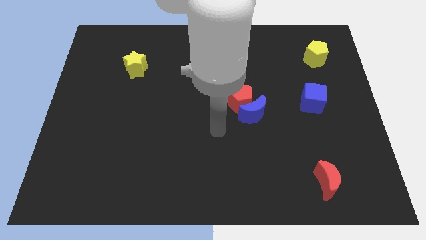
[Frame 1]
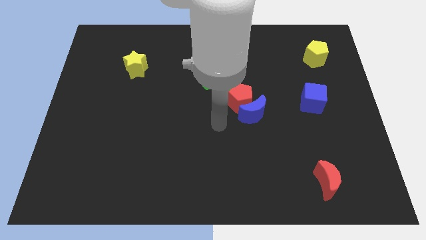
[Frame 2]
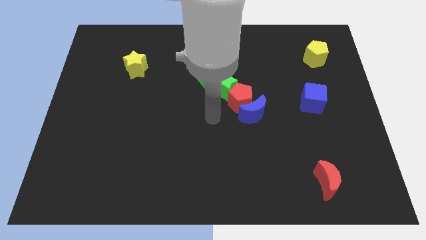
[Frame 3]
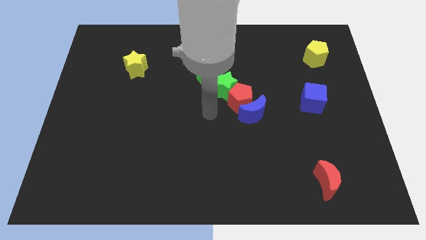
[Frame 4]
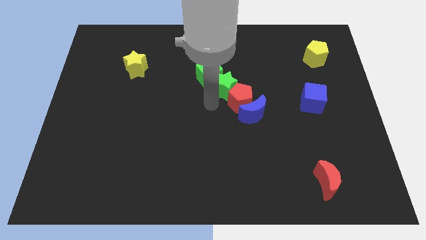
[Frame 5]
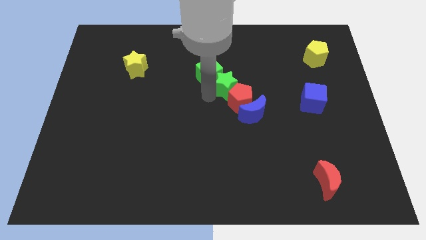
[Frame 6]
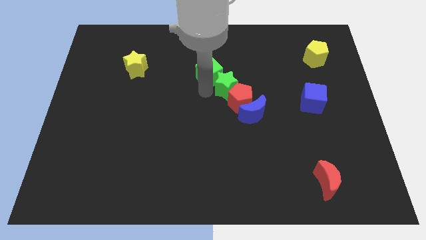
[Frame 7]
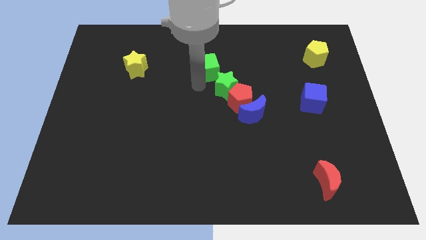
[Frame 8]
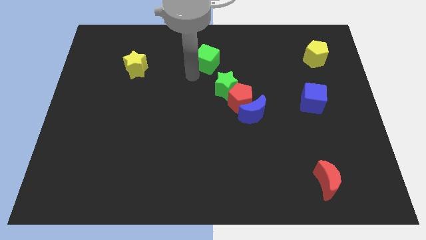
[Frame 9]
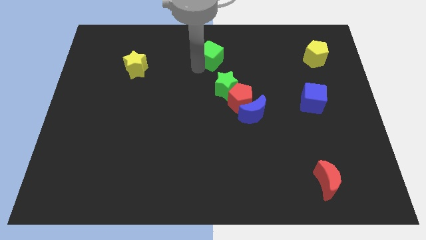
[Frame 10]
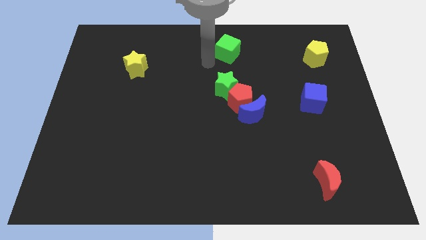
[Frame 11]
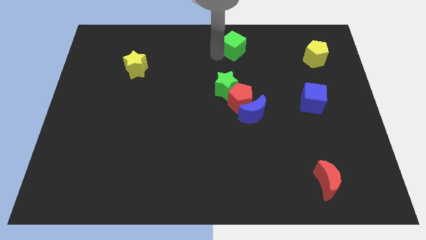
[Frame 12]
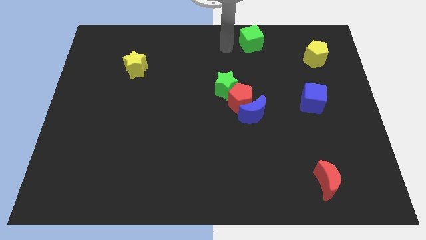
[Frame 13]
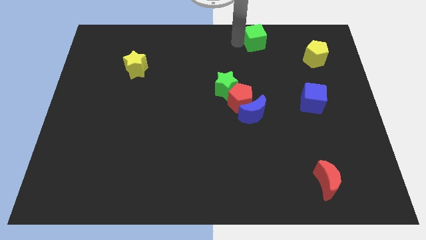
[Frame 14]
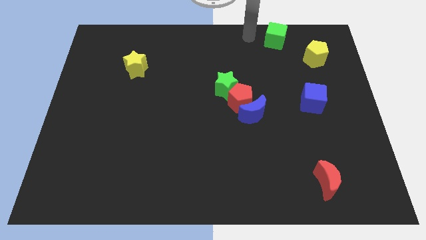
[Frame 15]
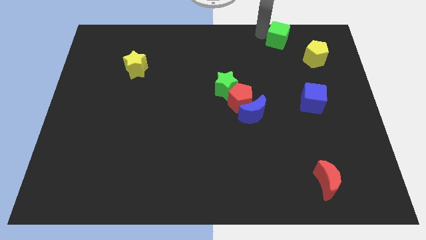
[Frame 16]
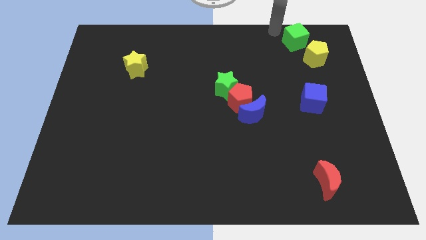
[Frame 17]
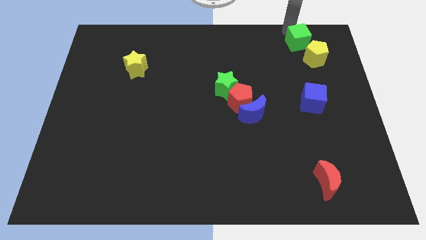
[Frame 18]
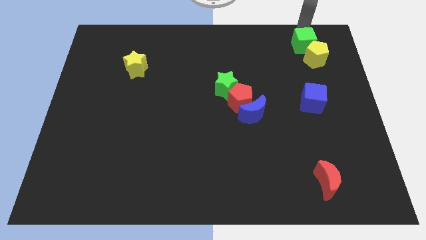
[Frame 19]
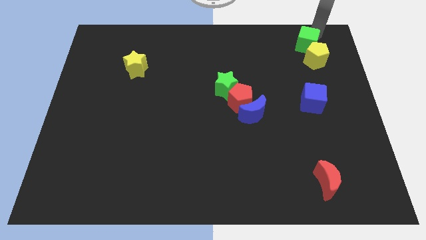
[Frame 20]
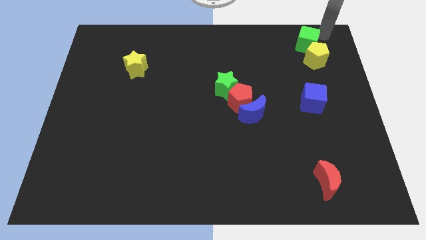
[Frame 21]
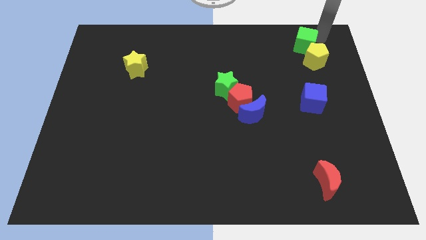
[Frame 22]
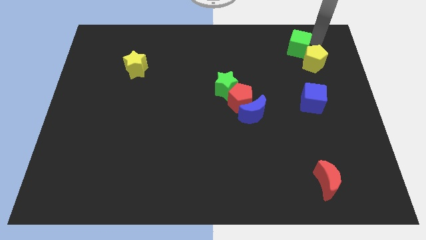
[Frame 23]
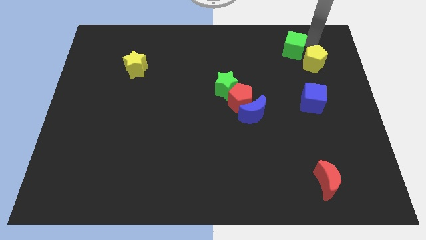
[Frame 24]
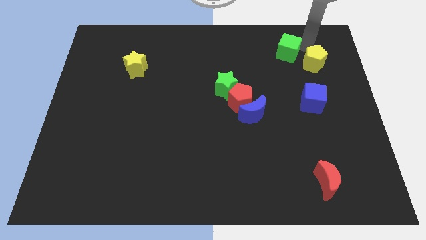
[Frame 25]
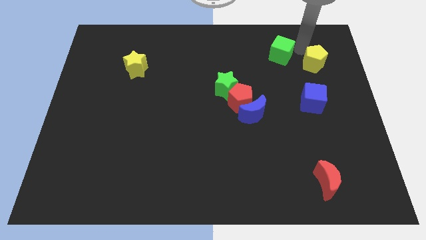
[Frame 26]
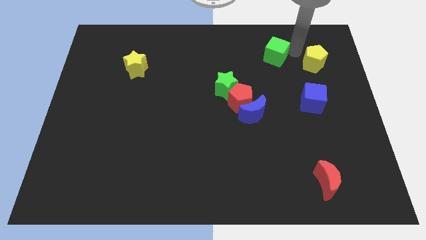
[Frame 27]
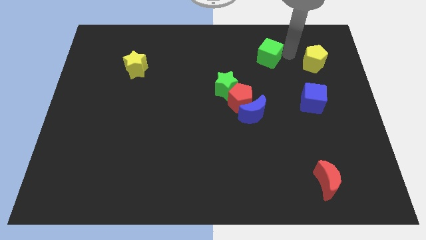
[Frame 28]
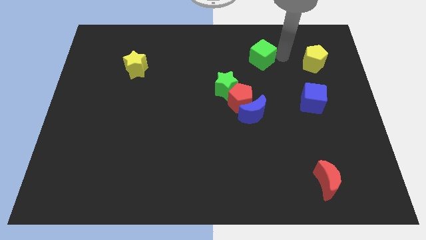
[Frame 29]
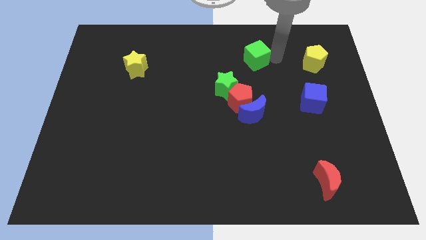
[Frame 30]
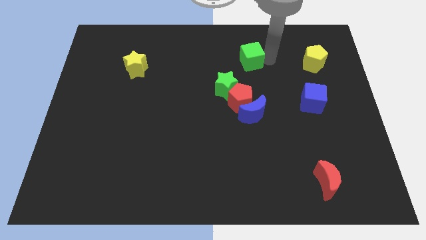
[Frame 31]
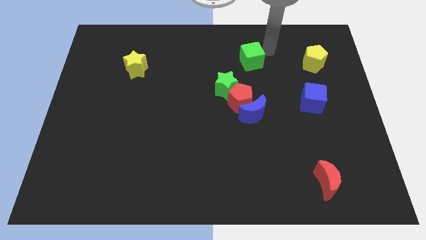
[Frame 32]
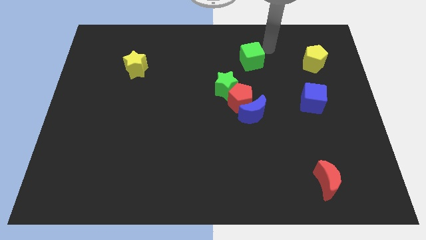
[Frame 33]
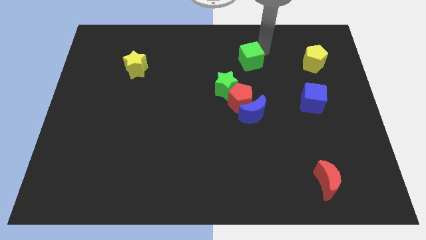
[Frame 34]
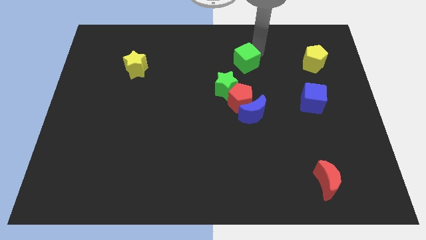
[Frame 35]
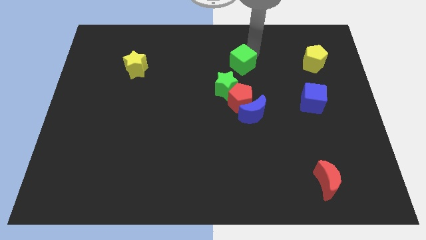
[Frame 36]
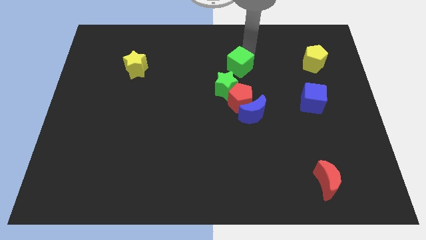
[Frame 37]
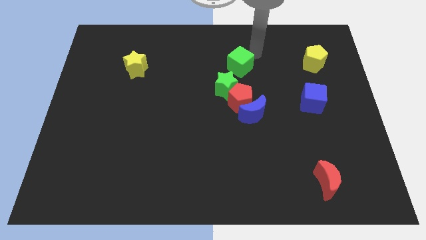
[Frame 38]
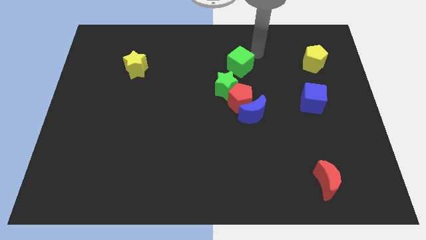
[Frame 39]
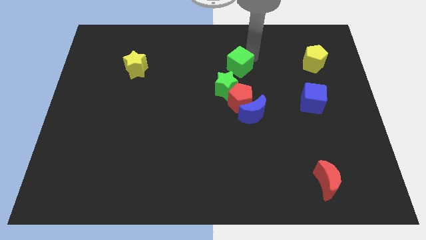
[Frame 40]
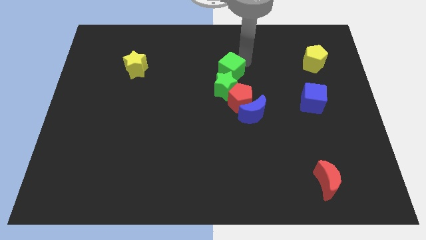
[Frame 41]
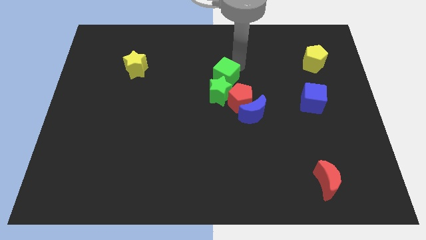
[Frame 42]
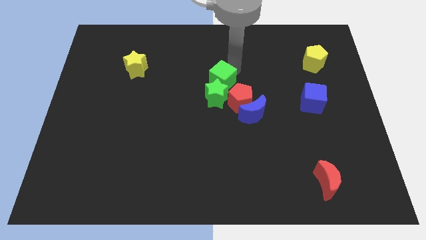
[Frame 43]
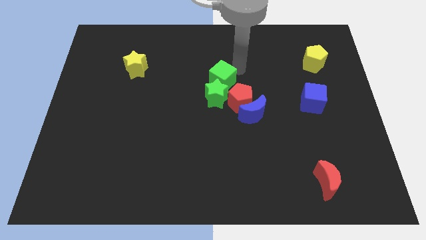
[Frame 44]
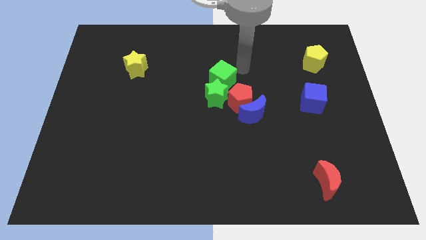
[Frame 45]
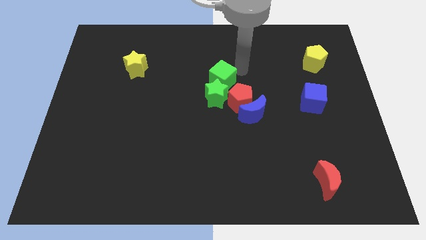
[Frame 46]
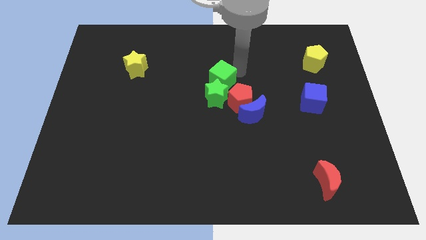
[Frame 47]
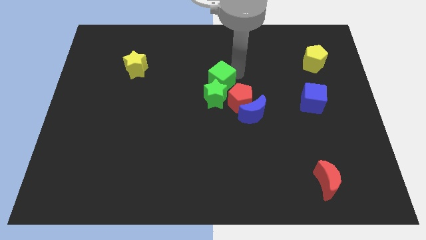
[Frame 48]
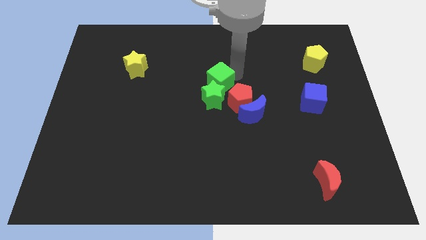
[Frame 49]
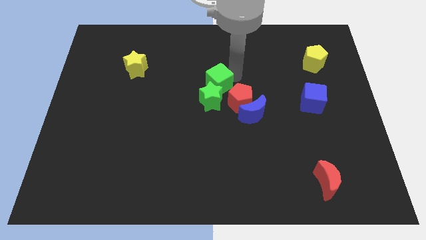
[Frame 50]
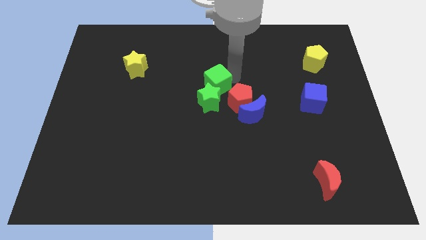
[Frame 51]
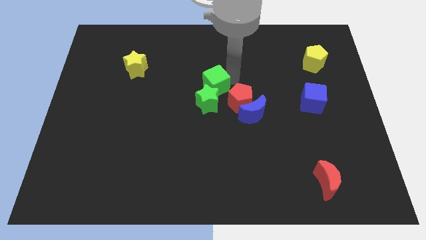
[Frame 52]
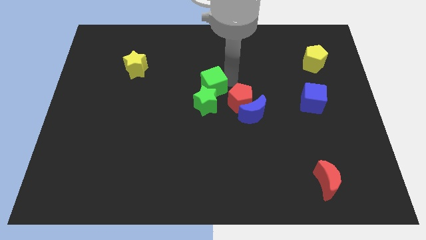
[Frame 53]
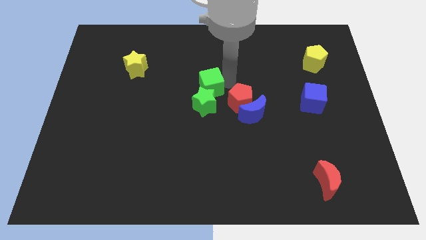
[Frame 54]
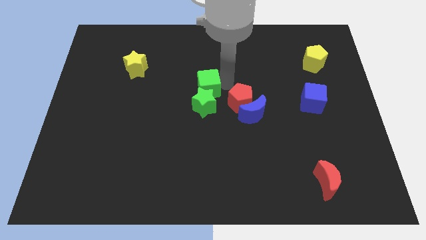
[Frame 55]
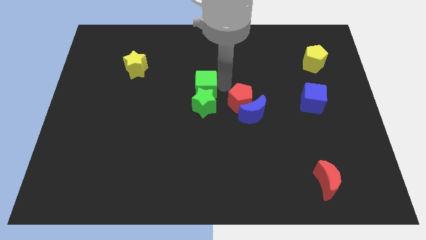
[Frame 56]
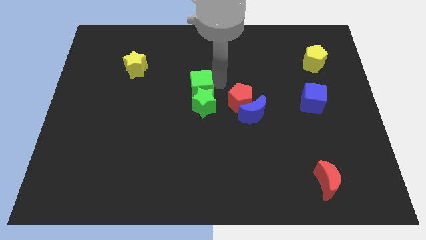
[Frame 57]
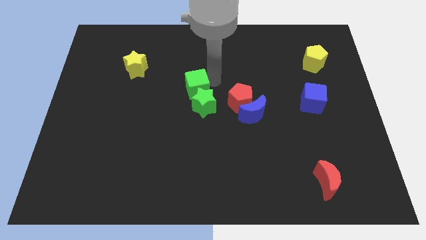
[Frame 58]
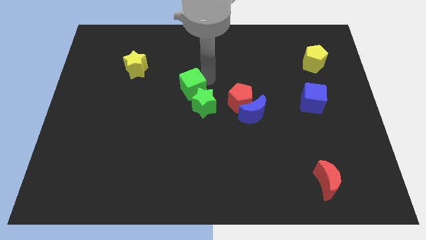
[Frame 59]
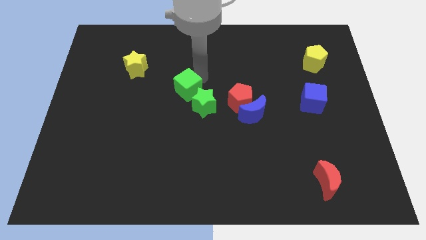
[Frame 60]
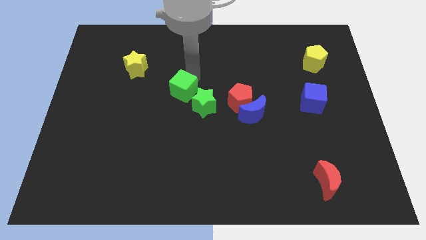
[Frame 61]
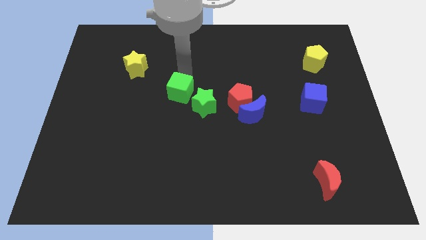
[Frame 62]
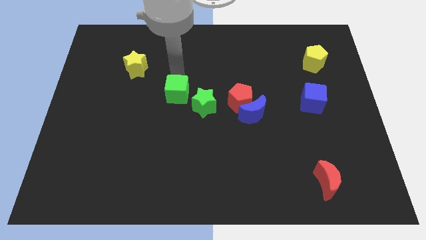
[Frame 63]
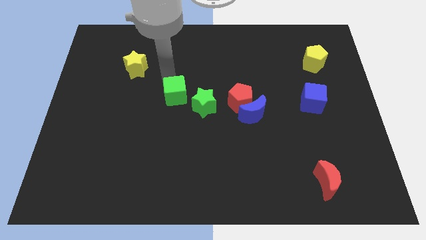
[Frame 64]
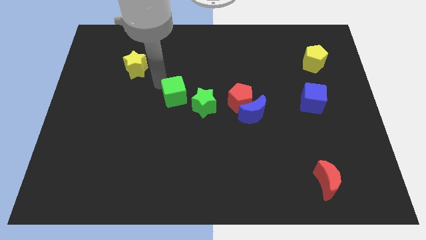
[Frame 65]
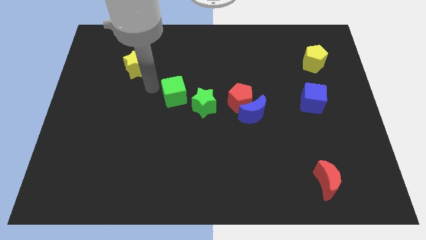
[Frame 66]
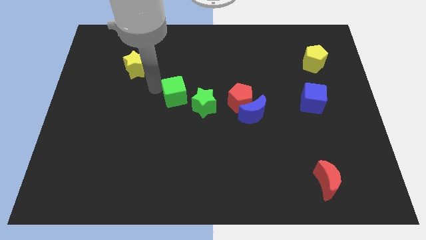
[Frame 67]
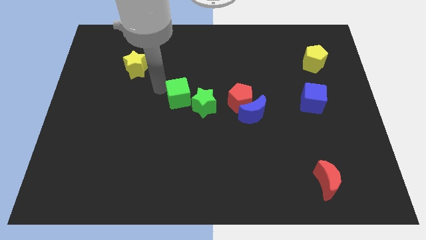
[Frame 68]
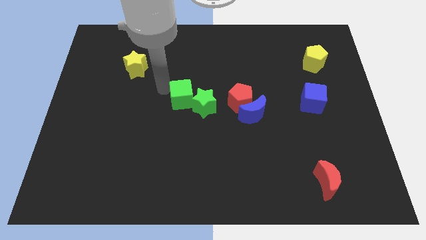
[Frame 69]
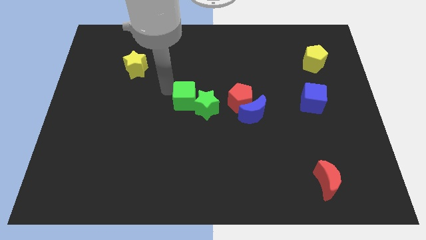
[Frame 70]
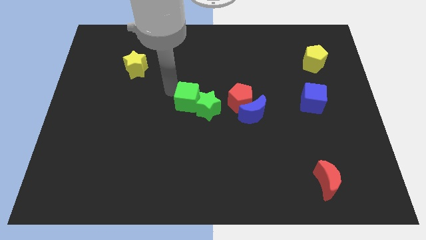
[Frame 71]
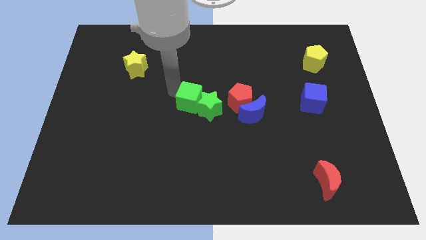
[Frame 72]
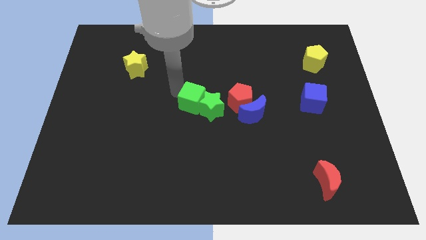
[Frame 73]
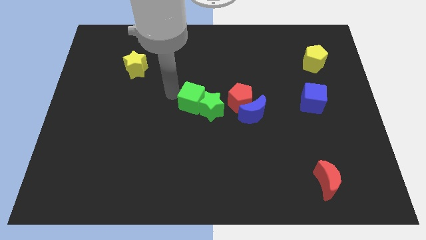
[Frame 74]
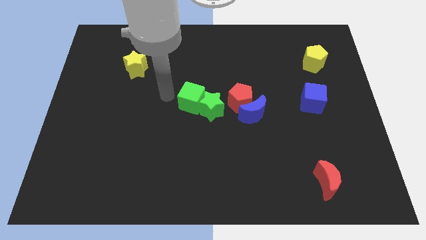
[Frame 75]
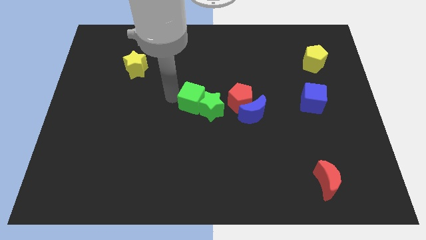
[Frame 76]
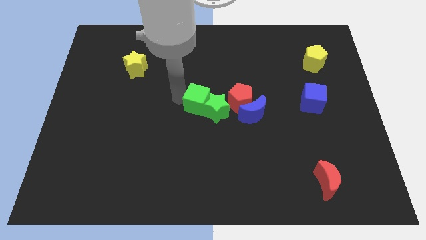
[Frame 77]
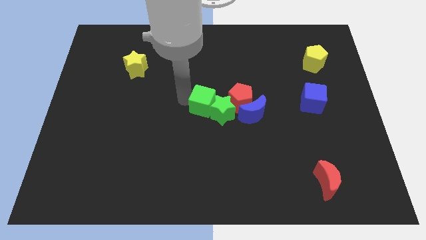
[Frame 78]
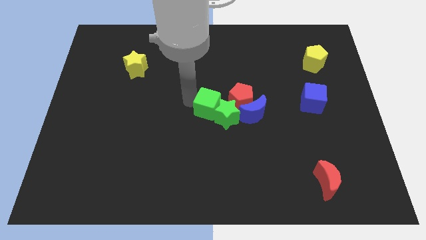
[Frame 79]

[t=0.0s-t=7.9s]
push the green cube to the bottom left side of the red pentagon
